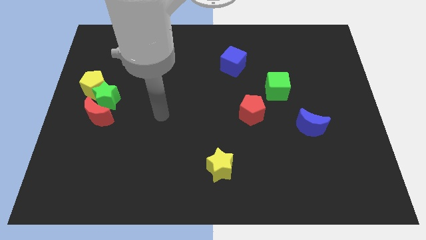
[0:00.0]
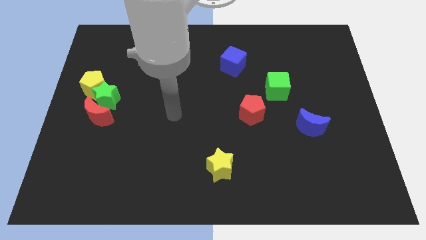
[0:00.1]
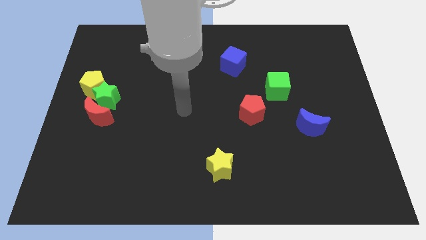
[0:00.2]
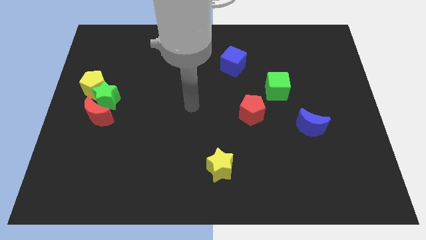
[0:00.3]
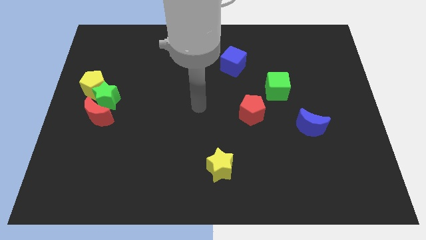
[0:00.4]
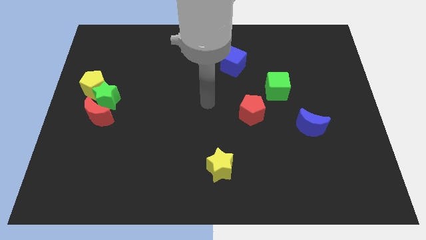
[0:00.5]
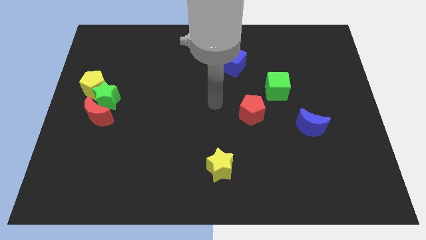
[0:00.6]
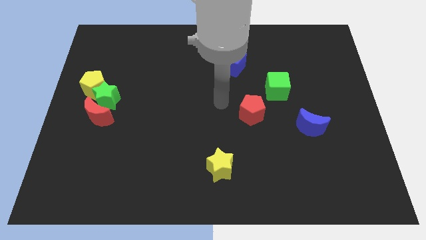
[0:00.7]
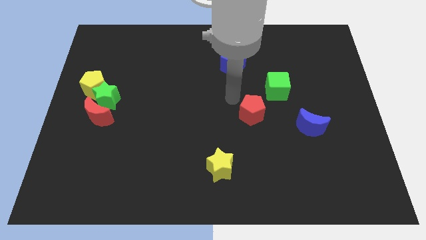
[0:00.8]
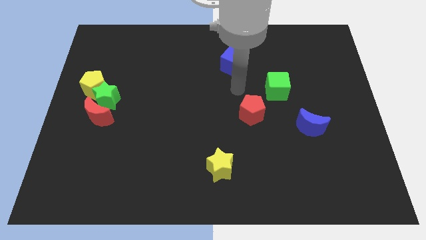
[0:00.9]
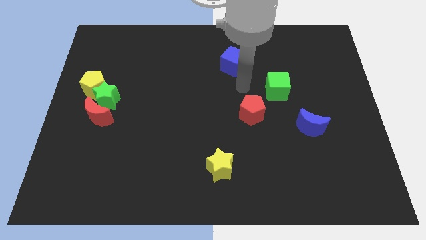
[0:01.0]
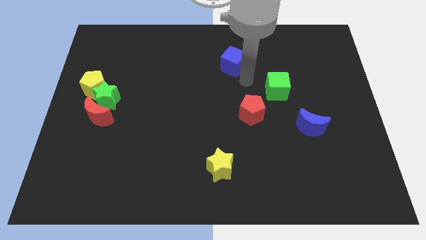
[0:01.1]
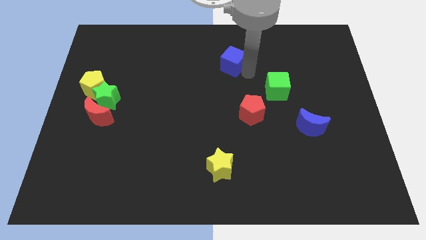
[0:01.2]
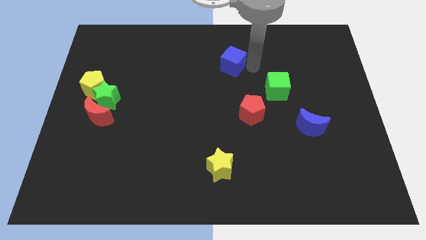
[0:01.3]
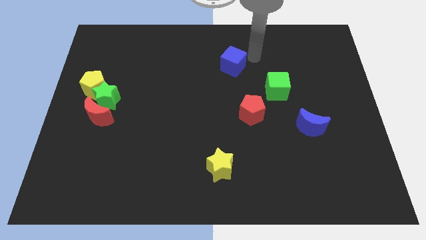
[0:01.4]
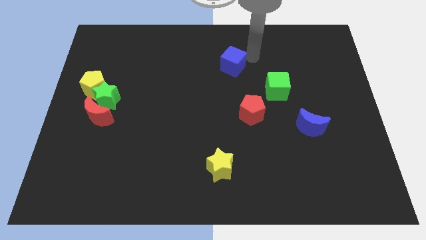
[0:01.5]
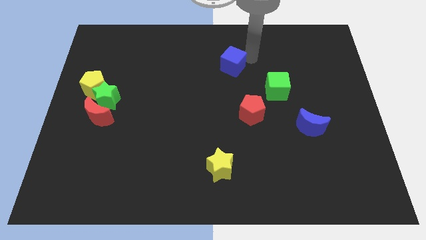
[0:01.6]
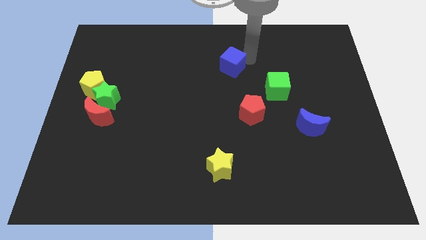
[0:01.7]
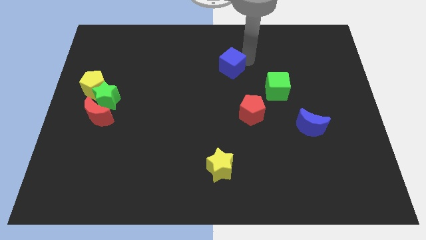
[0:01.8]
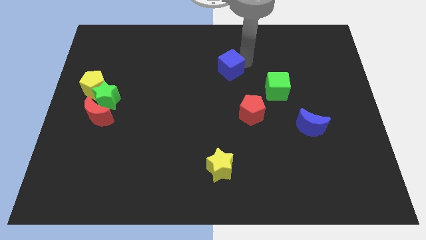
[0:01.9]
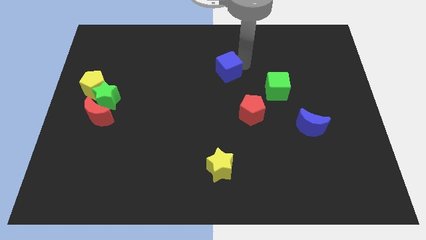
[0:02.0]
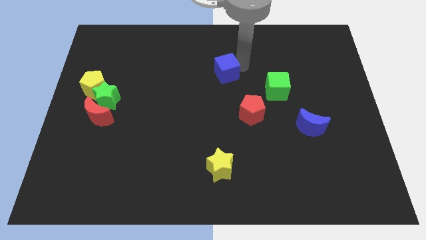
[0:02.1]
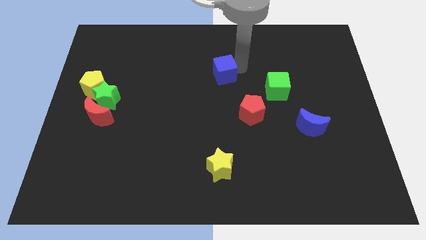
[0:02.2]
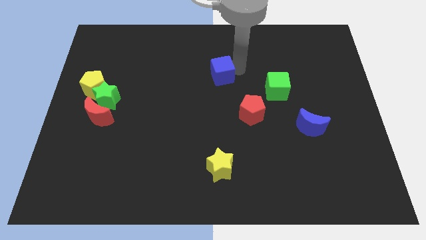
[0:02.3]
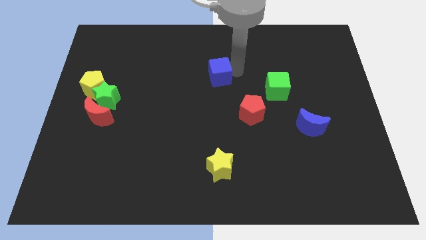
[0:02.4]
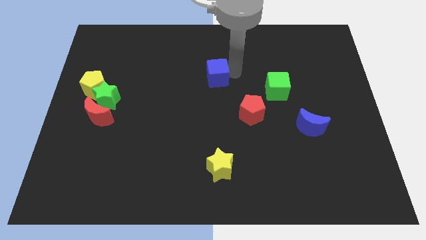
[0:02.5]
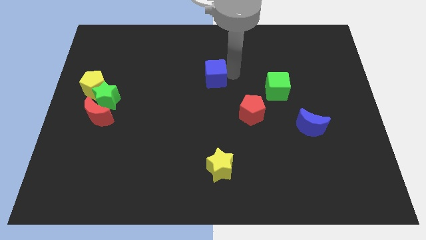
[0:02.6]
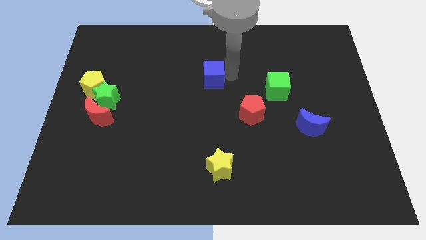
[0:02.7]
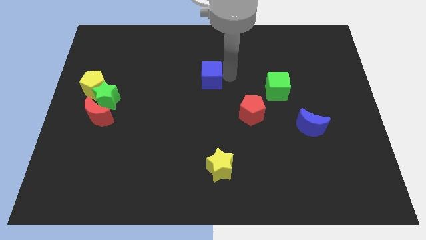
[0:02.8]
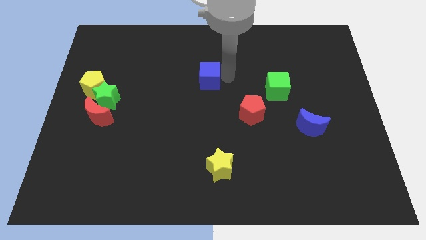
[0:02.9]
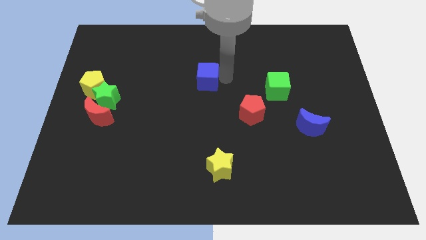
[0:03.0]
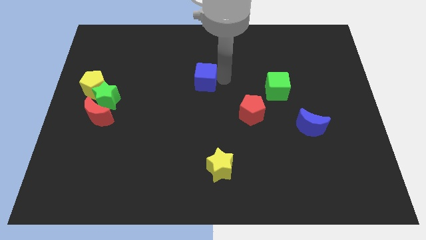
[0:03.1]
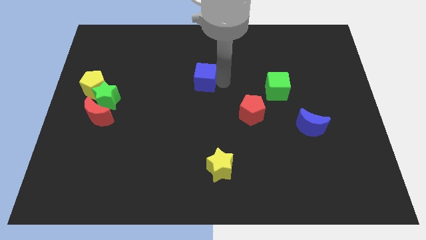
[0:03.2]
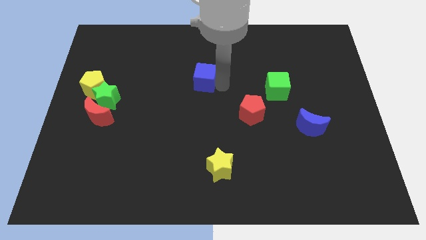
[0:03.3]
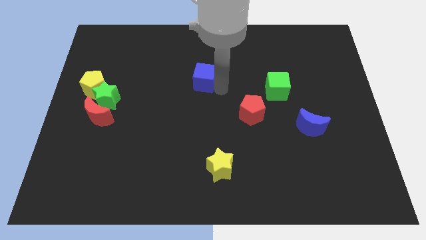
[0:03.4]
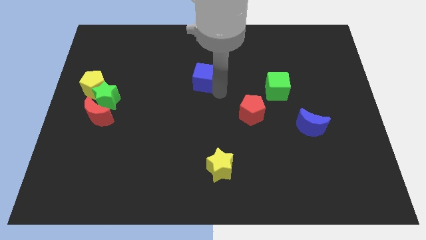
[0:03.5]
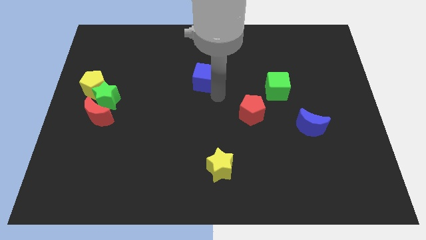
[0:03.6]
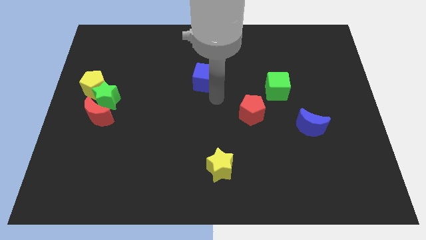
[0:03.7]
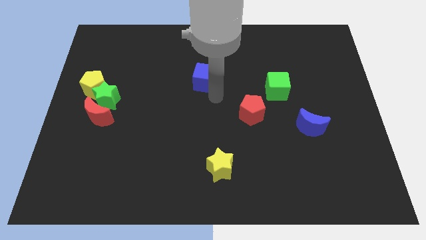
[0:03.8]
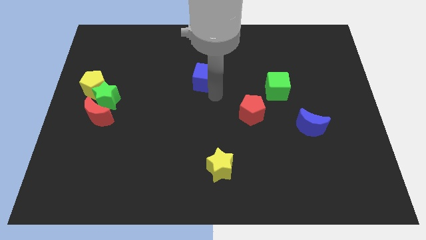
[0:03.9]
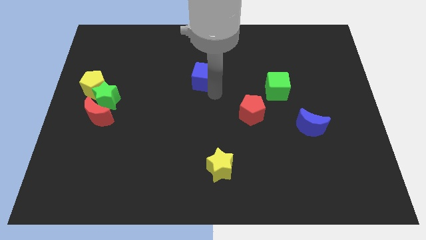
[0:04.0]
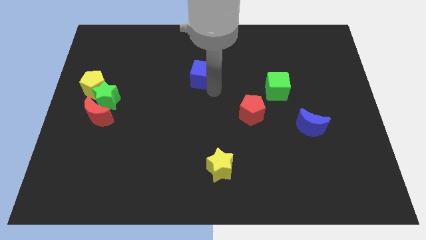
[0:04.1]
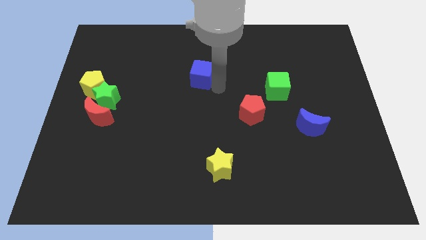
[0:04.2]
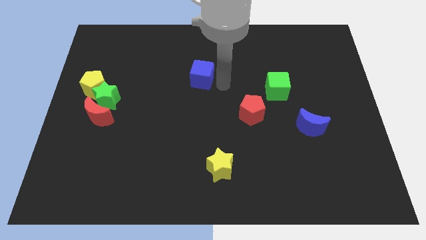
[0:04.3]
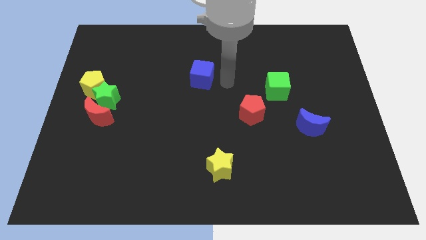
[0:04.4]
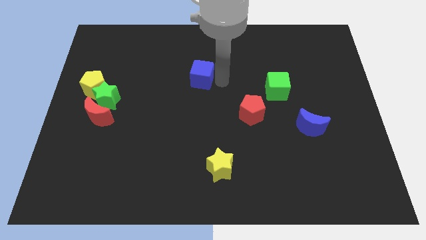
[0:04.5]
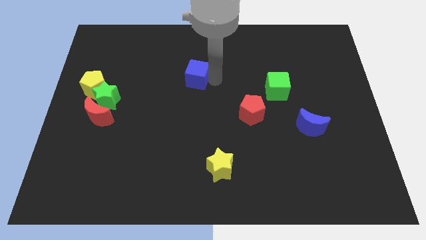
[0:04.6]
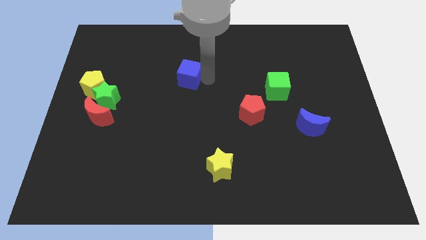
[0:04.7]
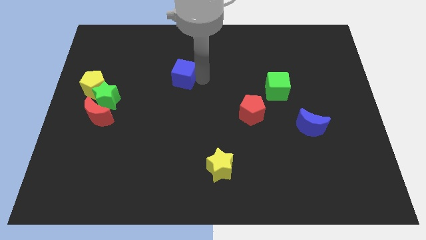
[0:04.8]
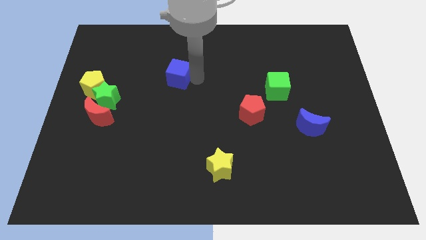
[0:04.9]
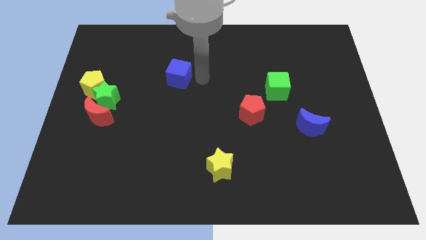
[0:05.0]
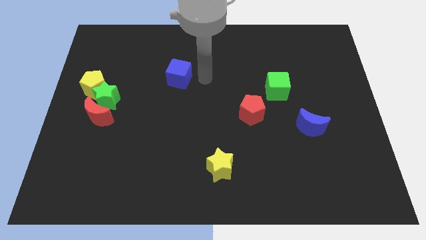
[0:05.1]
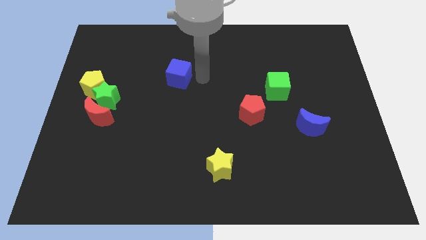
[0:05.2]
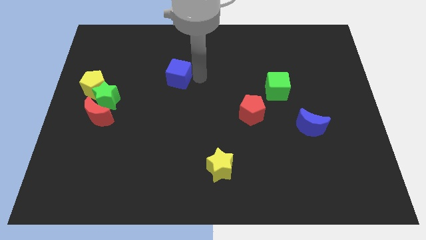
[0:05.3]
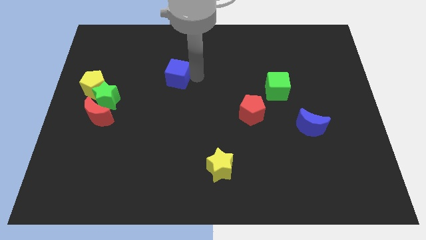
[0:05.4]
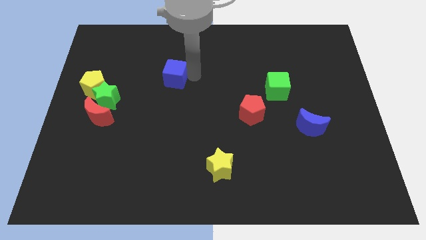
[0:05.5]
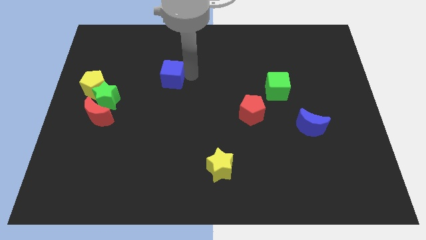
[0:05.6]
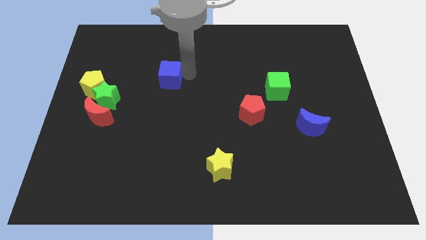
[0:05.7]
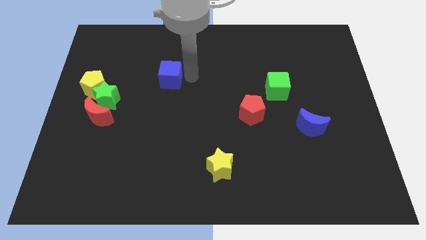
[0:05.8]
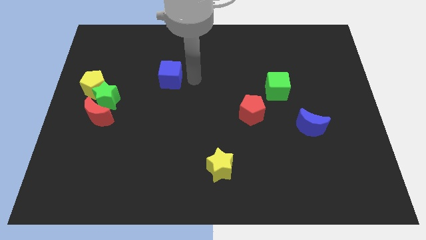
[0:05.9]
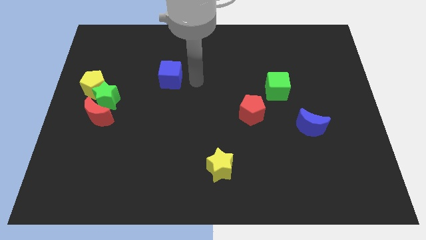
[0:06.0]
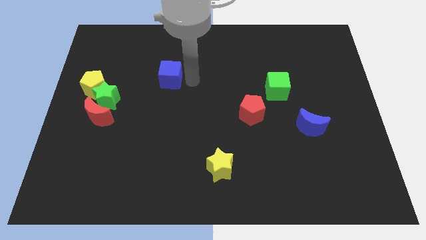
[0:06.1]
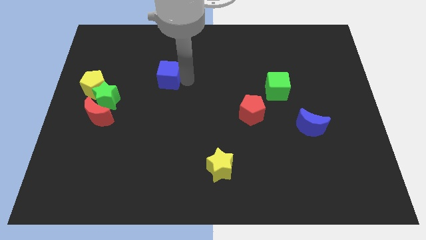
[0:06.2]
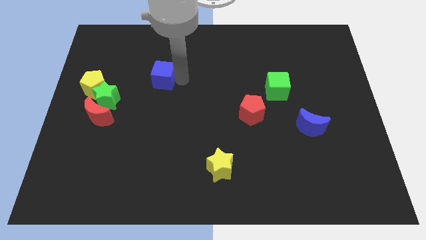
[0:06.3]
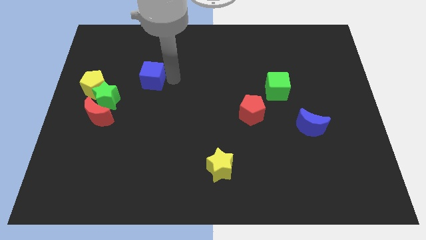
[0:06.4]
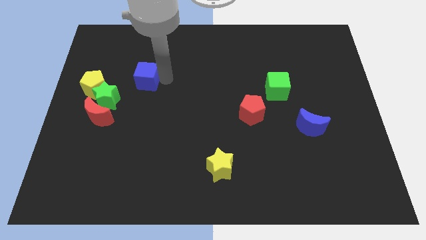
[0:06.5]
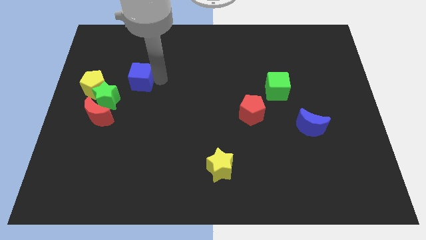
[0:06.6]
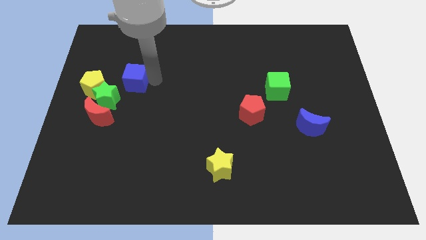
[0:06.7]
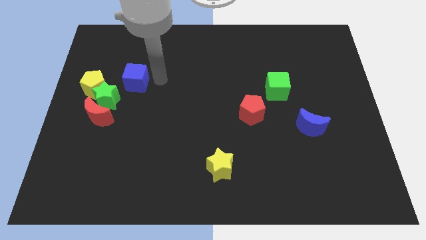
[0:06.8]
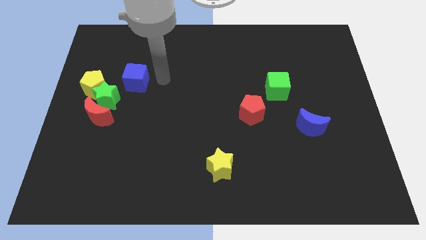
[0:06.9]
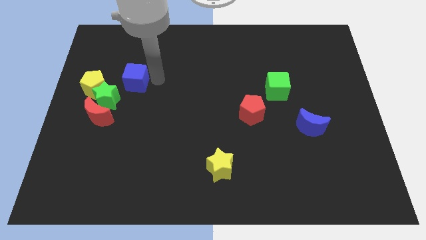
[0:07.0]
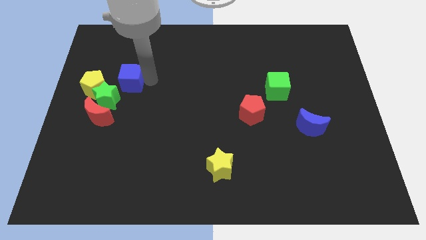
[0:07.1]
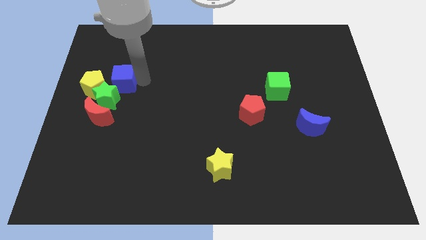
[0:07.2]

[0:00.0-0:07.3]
move the blue cube above the red moon
